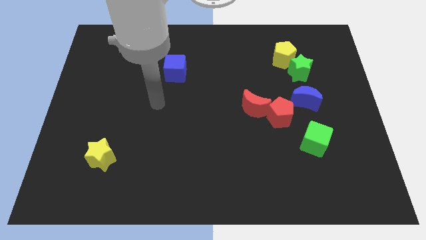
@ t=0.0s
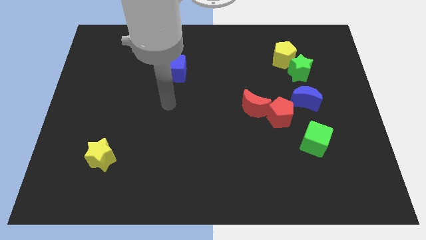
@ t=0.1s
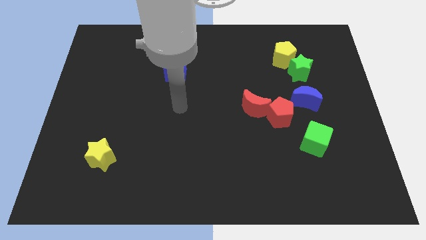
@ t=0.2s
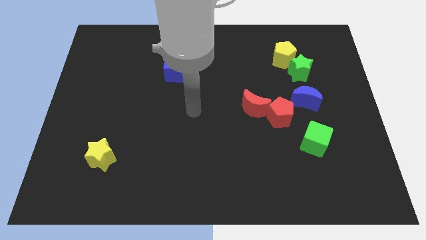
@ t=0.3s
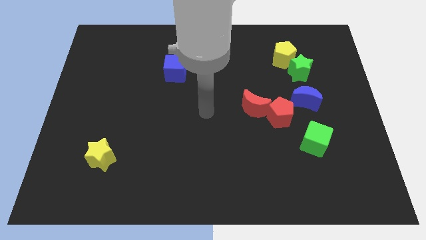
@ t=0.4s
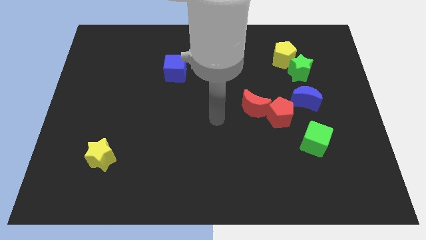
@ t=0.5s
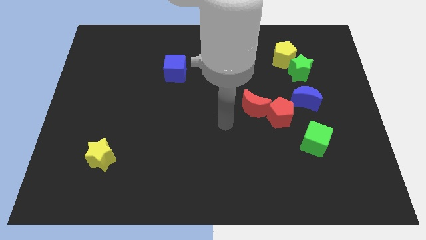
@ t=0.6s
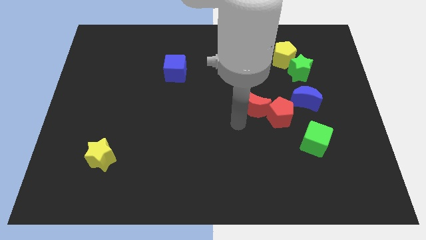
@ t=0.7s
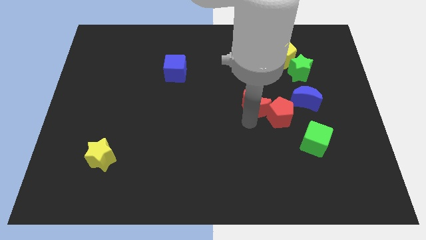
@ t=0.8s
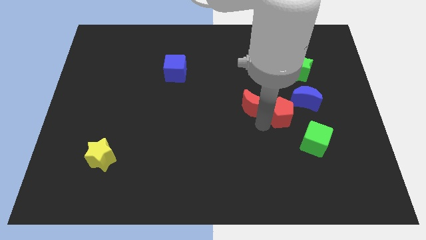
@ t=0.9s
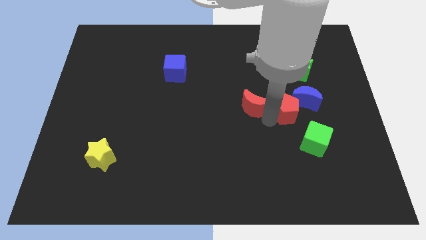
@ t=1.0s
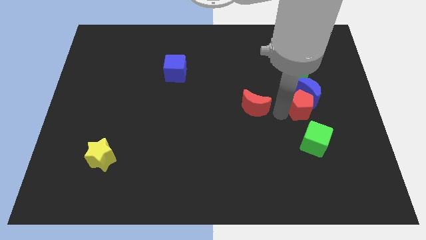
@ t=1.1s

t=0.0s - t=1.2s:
separate the red moon from the red pentagon

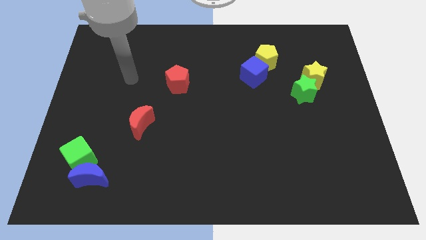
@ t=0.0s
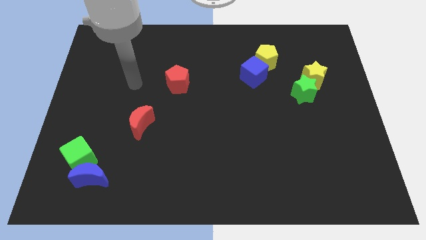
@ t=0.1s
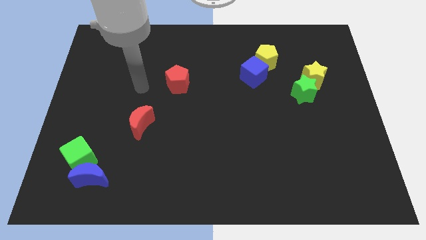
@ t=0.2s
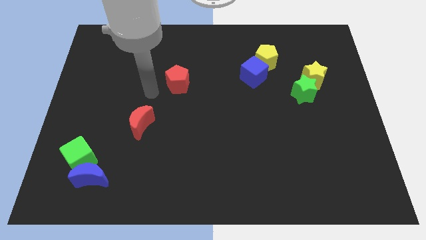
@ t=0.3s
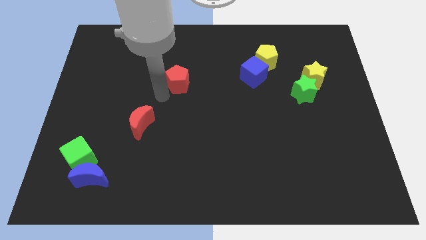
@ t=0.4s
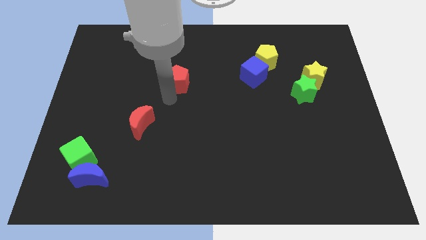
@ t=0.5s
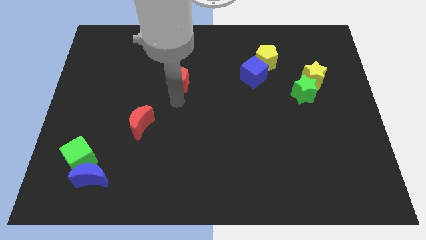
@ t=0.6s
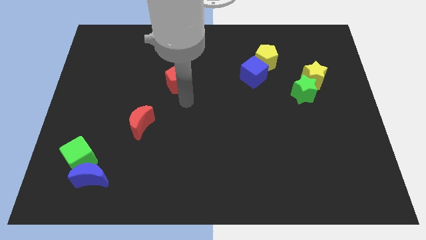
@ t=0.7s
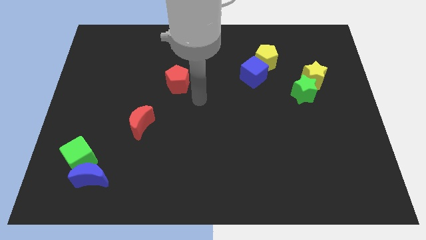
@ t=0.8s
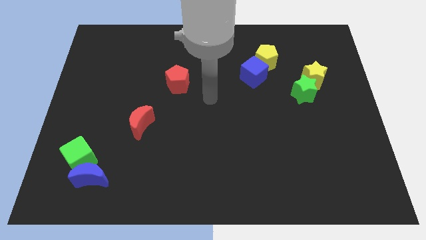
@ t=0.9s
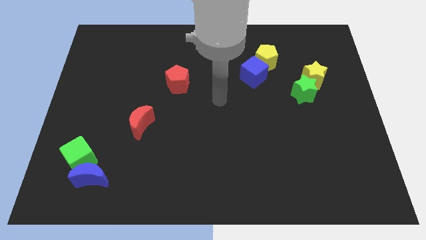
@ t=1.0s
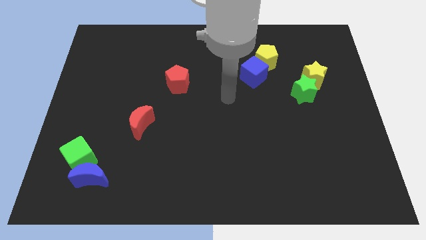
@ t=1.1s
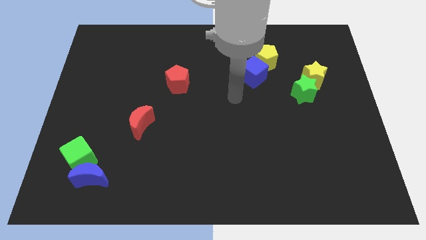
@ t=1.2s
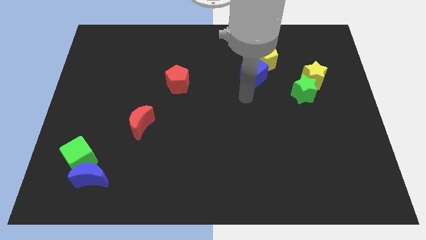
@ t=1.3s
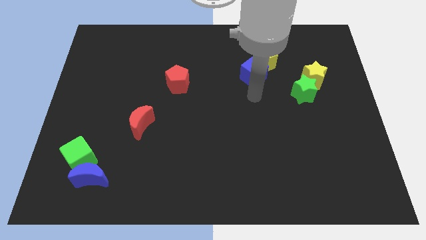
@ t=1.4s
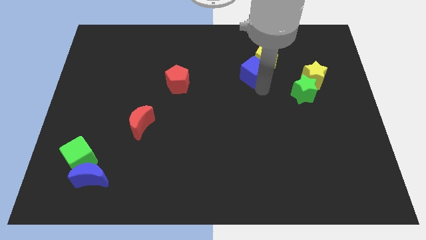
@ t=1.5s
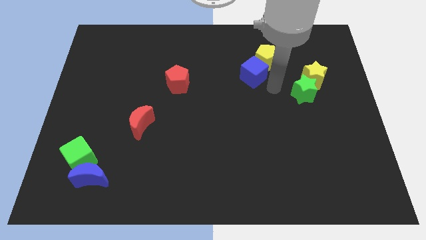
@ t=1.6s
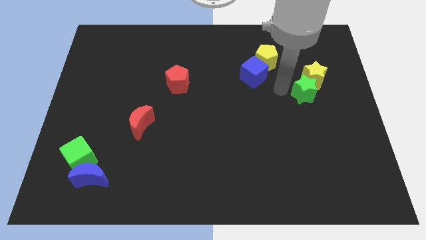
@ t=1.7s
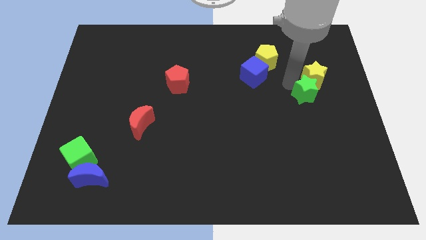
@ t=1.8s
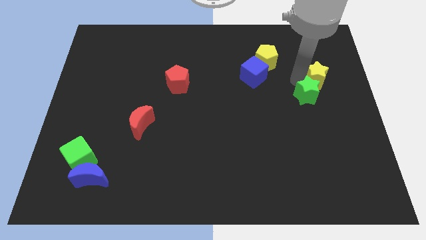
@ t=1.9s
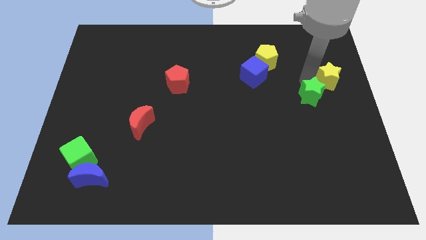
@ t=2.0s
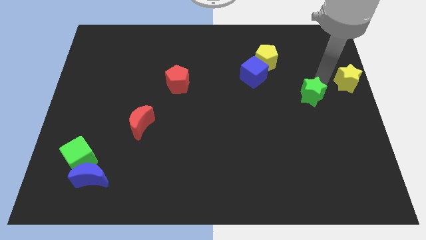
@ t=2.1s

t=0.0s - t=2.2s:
pull the green star apart from the yellow star

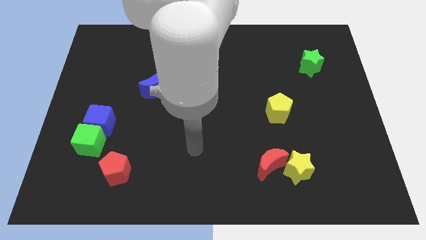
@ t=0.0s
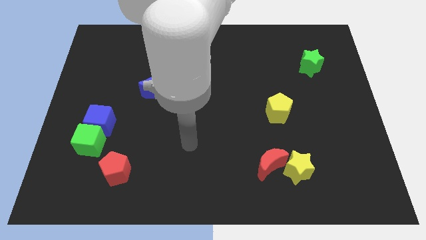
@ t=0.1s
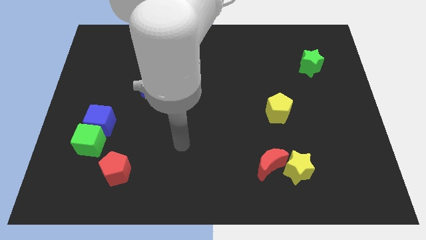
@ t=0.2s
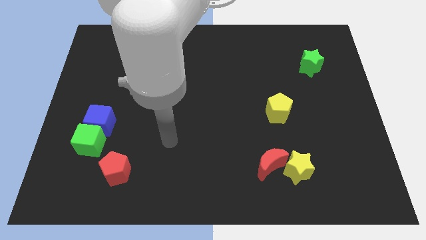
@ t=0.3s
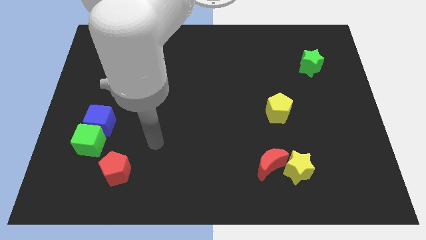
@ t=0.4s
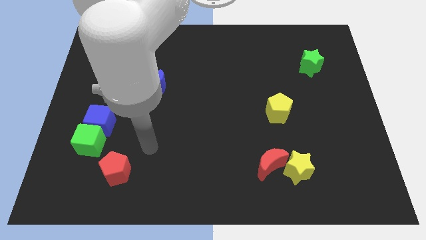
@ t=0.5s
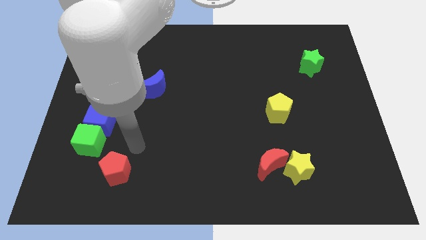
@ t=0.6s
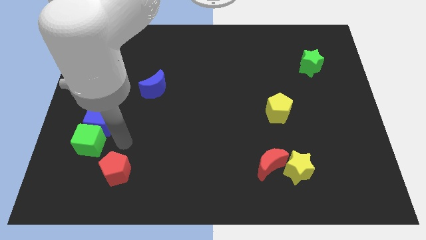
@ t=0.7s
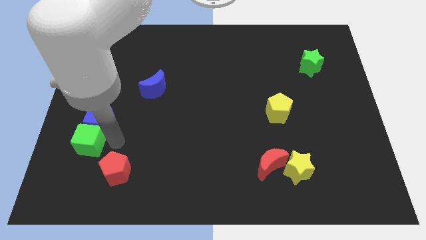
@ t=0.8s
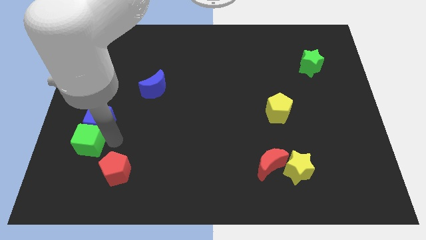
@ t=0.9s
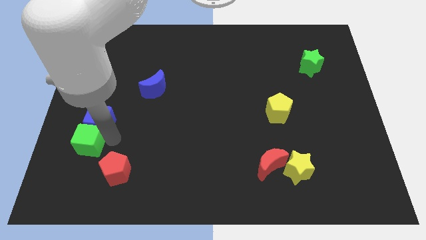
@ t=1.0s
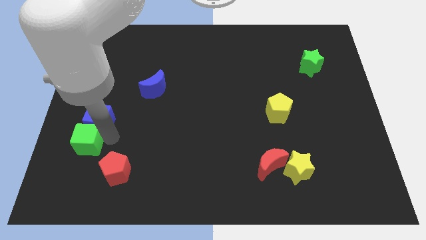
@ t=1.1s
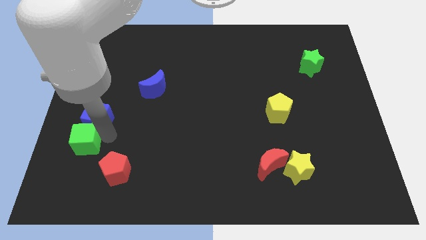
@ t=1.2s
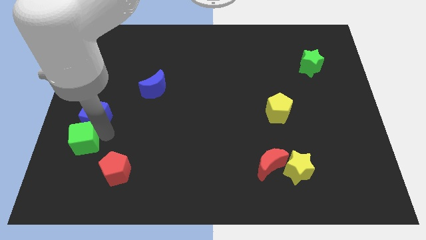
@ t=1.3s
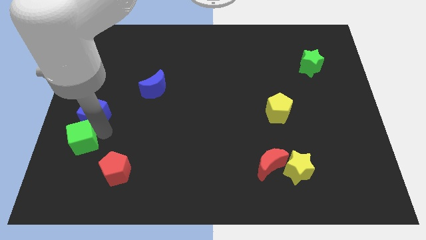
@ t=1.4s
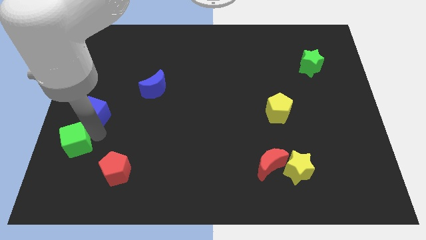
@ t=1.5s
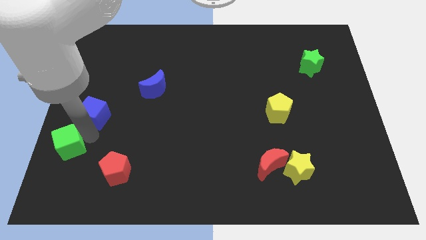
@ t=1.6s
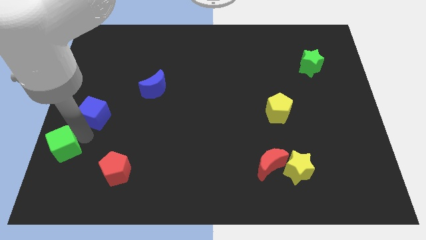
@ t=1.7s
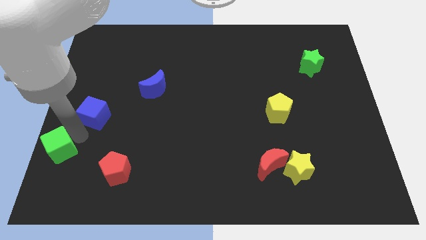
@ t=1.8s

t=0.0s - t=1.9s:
move the blue cube away from the green cube

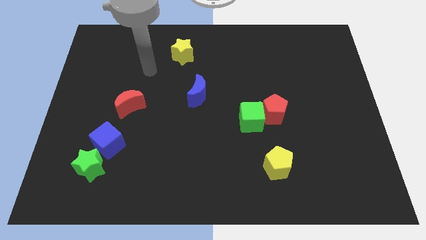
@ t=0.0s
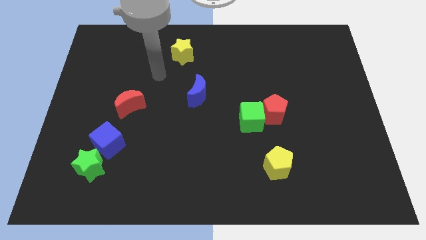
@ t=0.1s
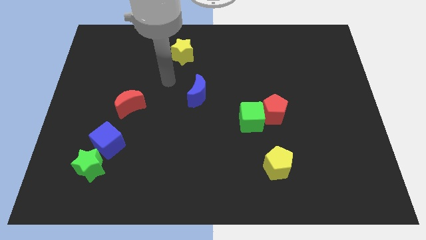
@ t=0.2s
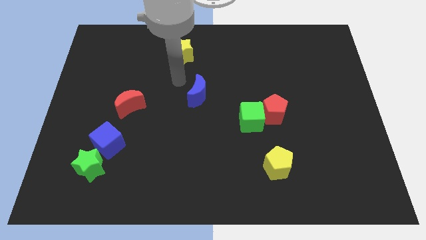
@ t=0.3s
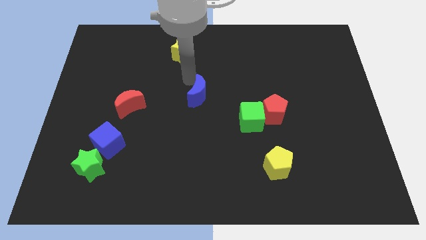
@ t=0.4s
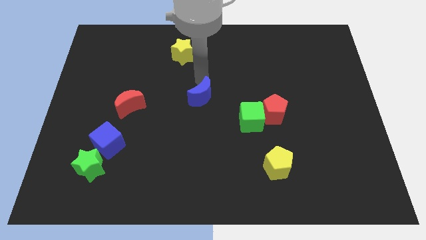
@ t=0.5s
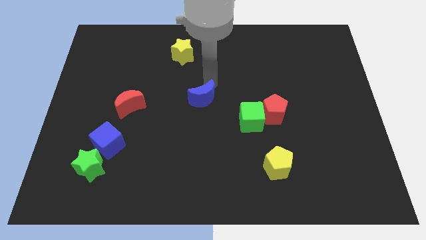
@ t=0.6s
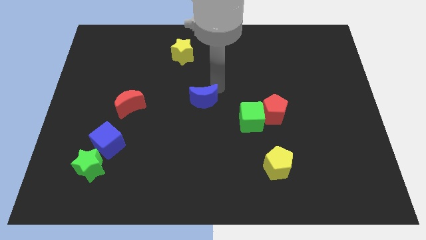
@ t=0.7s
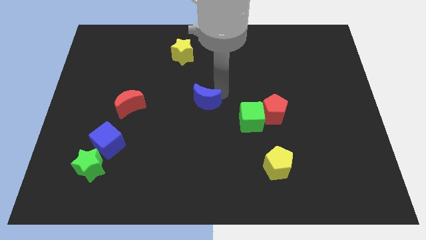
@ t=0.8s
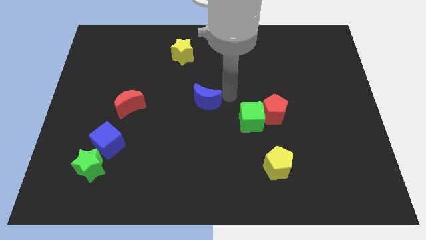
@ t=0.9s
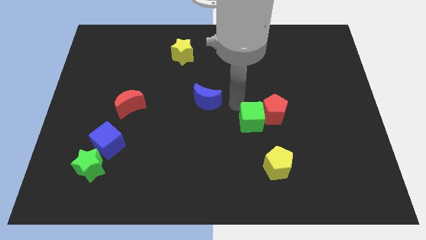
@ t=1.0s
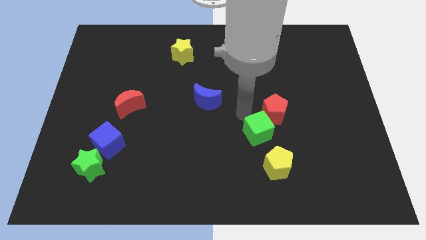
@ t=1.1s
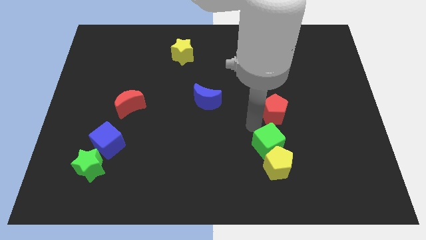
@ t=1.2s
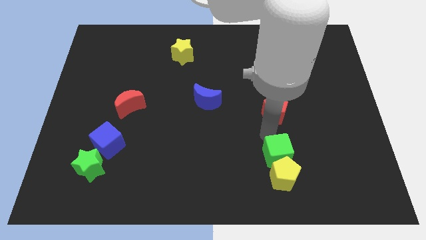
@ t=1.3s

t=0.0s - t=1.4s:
pull the red pentagon apart from the green cube

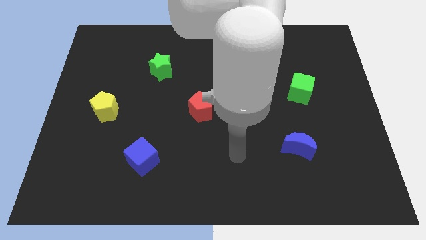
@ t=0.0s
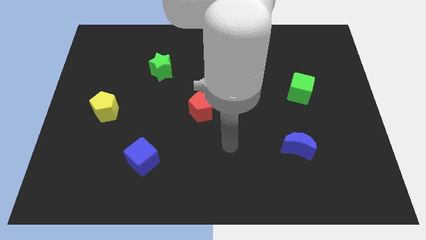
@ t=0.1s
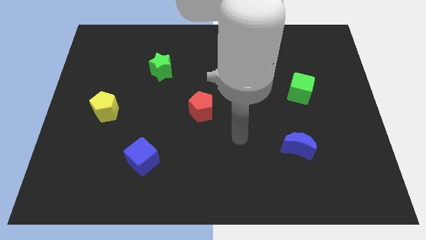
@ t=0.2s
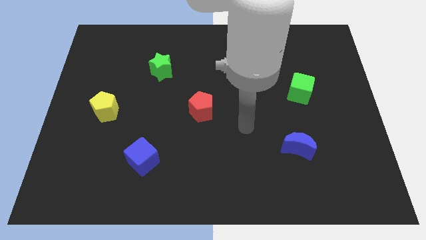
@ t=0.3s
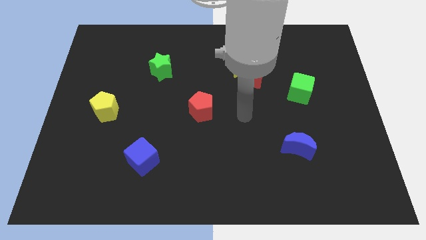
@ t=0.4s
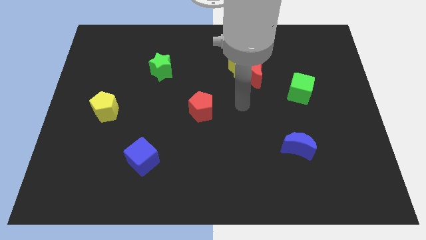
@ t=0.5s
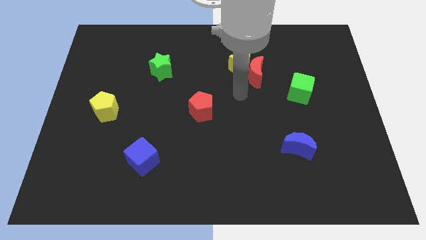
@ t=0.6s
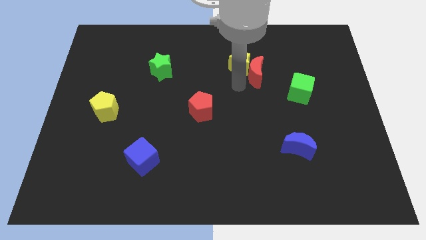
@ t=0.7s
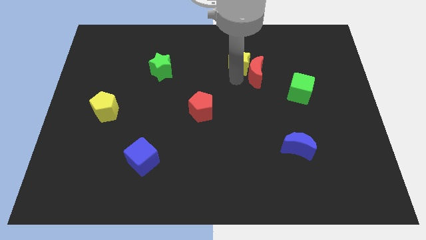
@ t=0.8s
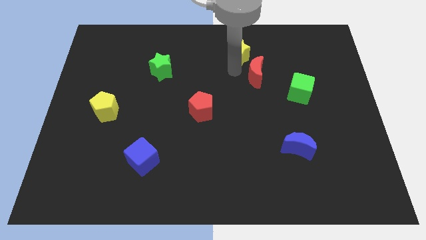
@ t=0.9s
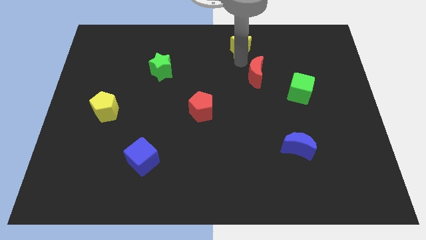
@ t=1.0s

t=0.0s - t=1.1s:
move the red moon away from the yellow star

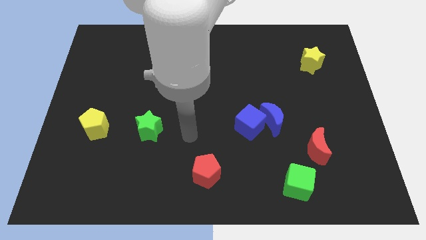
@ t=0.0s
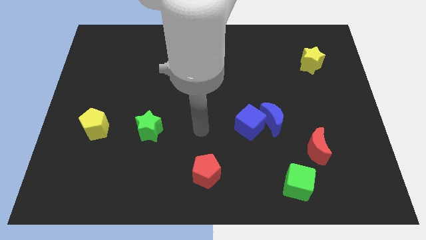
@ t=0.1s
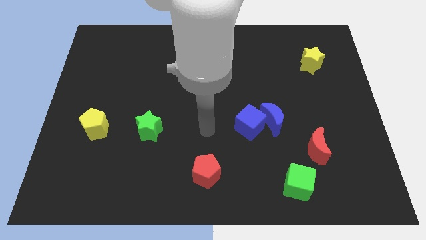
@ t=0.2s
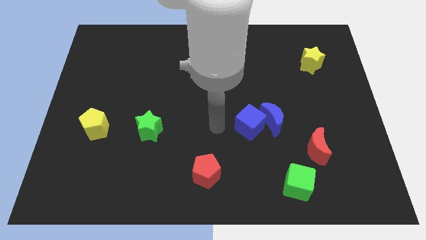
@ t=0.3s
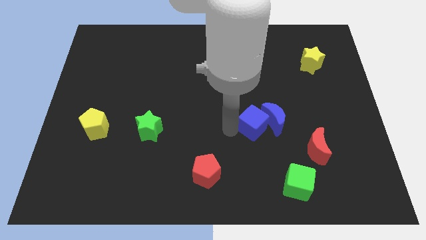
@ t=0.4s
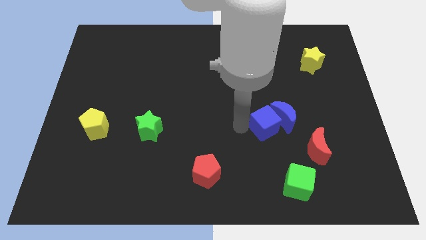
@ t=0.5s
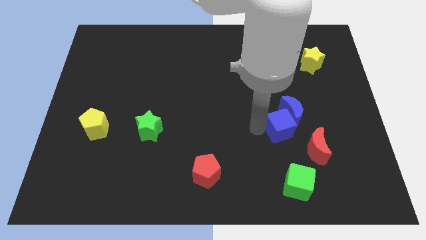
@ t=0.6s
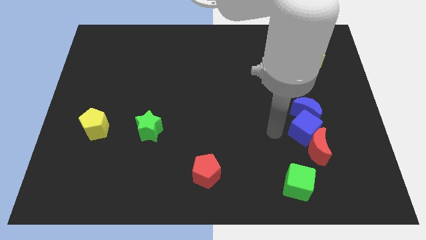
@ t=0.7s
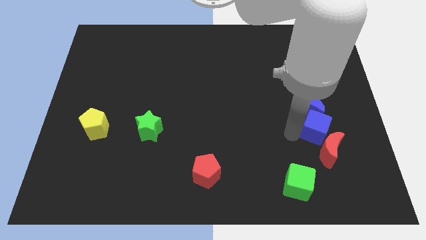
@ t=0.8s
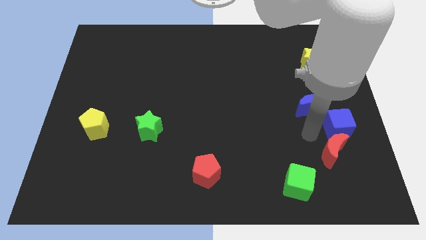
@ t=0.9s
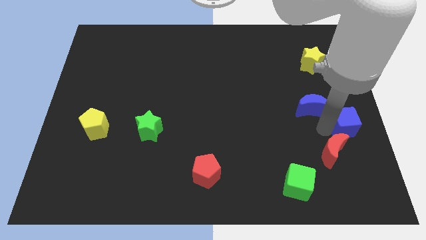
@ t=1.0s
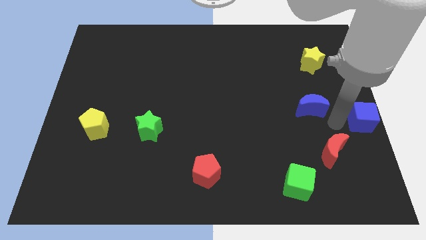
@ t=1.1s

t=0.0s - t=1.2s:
move the blue moon away from the blue cube

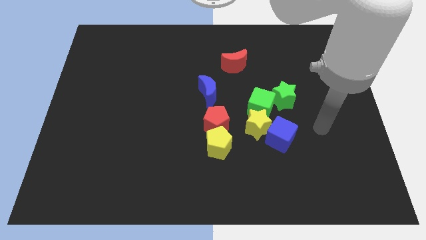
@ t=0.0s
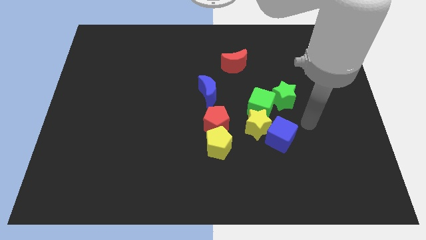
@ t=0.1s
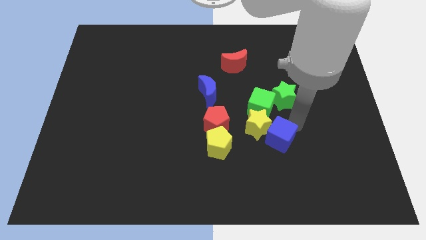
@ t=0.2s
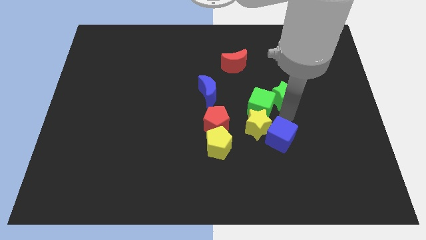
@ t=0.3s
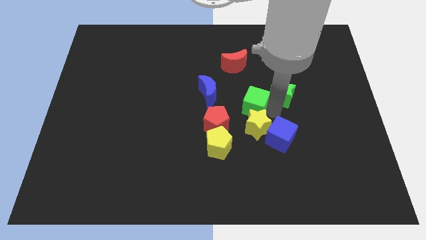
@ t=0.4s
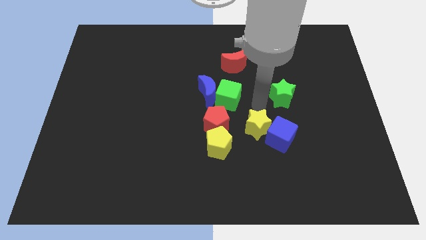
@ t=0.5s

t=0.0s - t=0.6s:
move the green star away from the green cube
